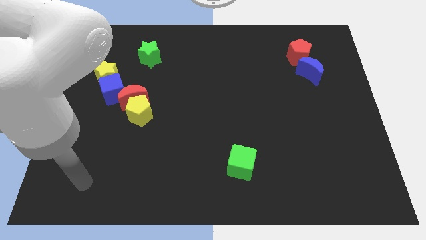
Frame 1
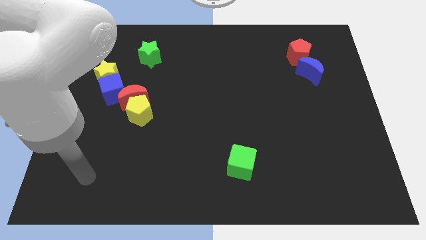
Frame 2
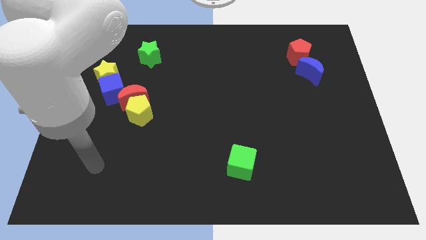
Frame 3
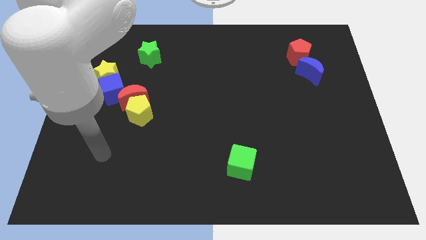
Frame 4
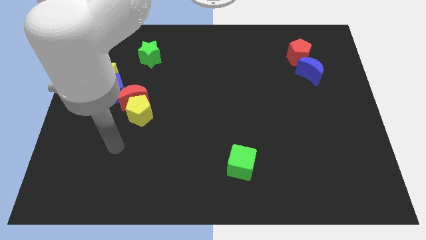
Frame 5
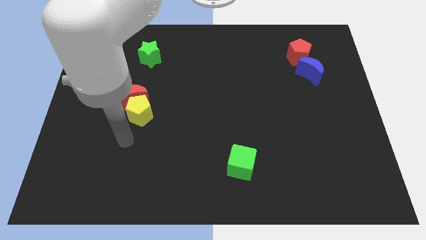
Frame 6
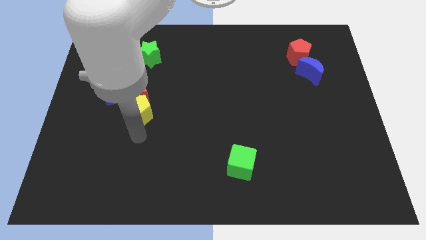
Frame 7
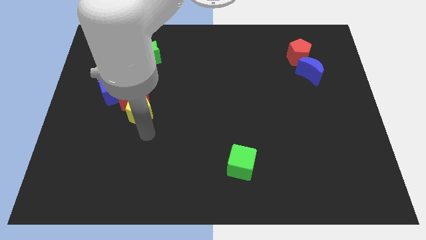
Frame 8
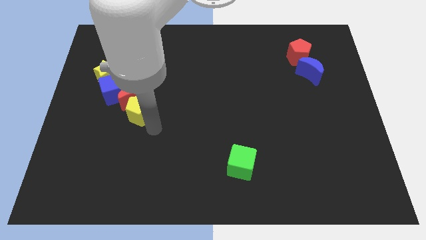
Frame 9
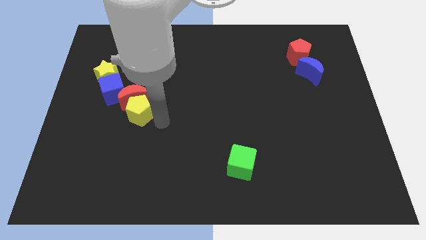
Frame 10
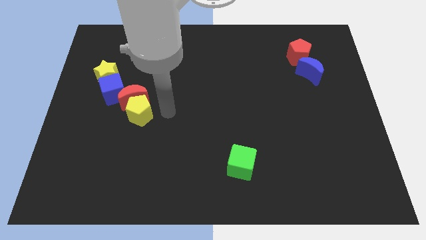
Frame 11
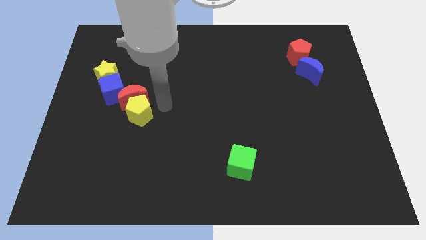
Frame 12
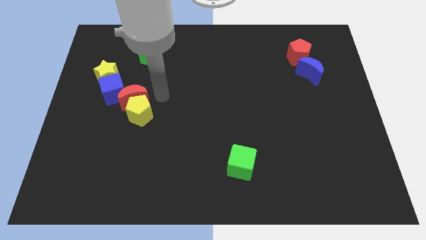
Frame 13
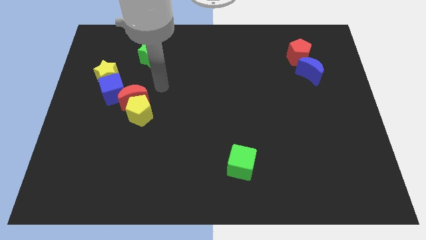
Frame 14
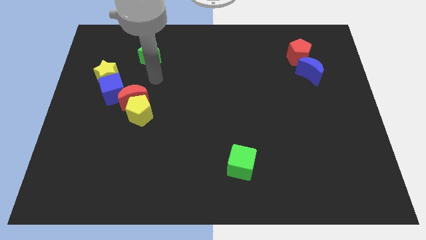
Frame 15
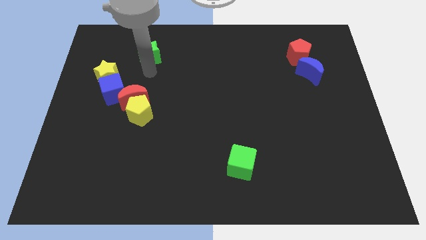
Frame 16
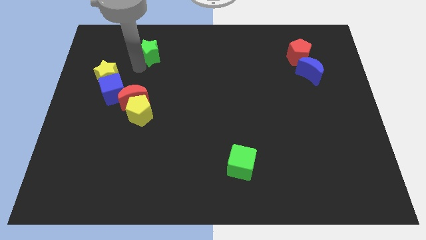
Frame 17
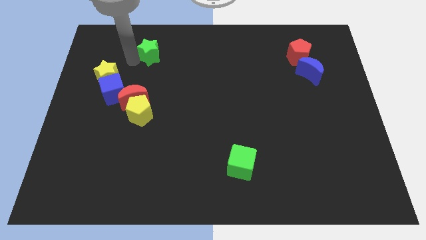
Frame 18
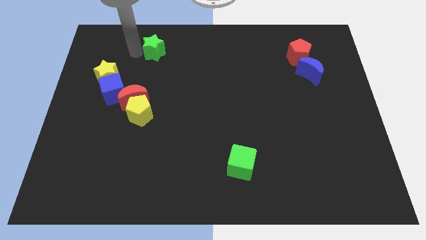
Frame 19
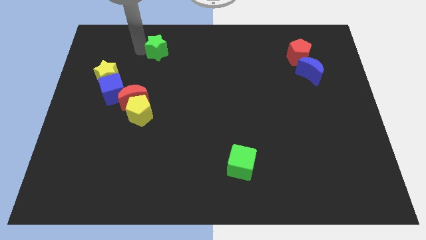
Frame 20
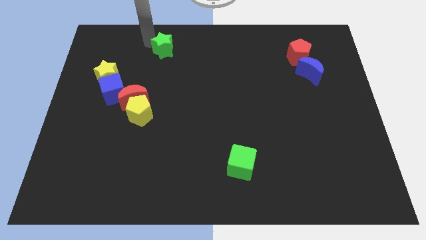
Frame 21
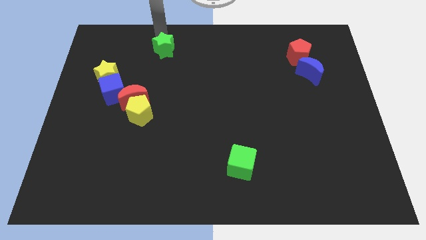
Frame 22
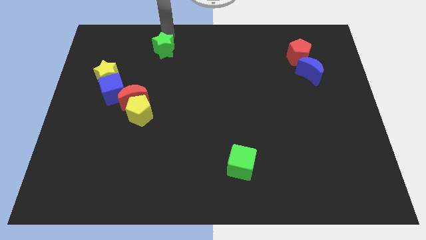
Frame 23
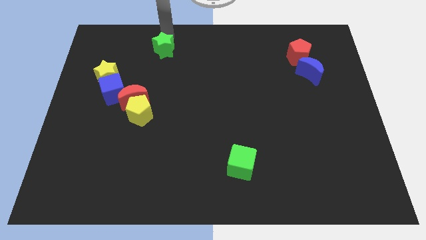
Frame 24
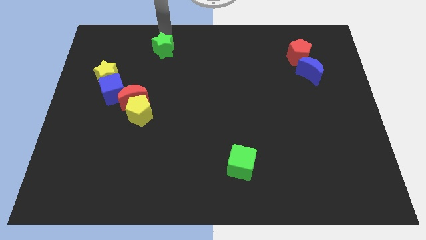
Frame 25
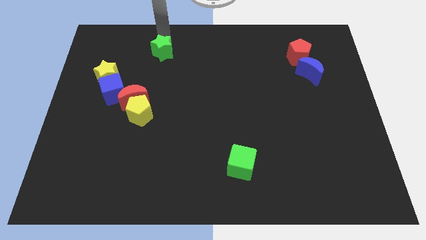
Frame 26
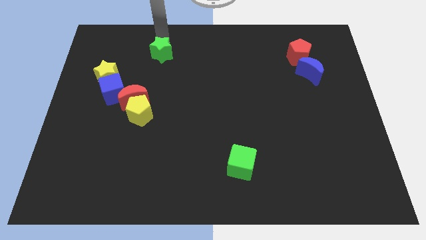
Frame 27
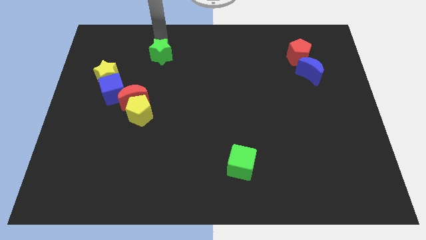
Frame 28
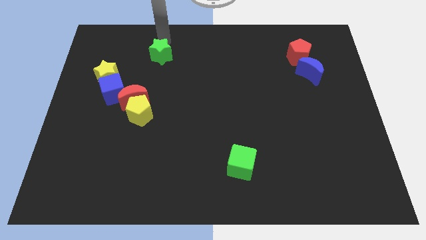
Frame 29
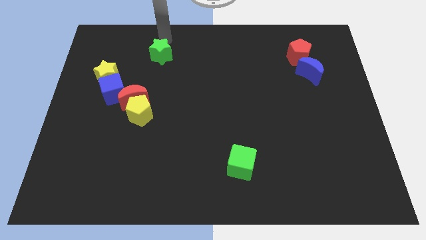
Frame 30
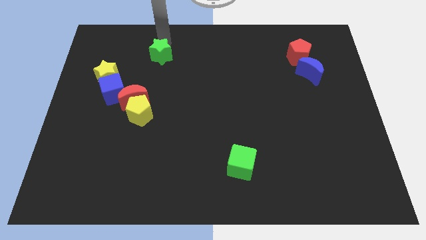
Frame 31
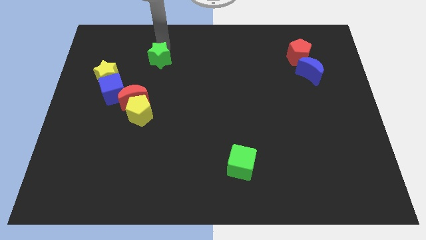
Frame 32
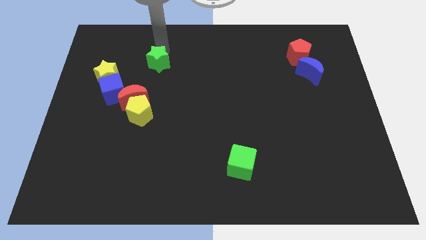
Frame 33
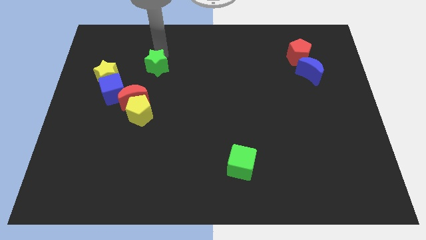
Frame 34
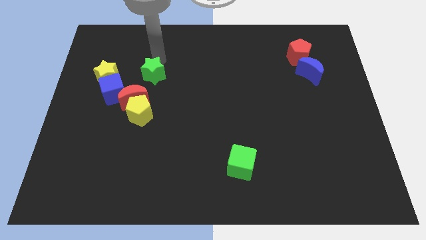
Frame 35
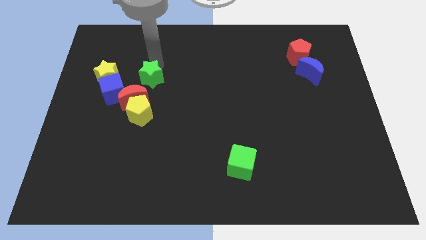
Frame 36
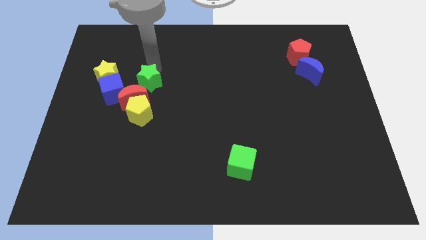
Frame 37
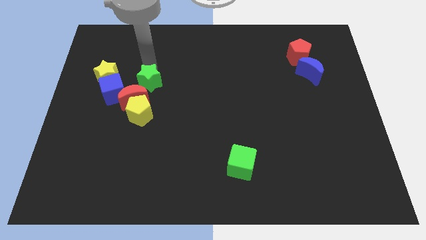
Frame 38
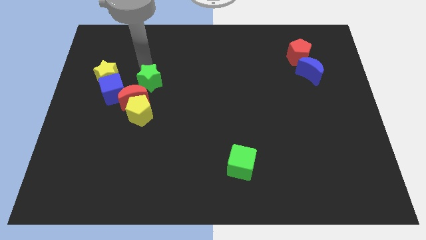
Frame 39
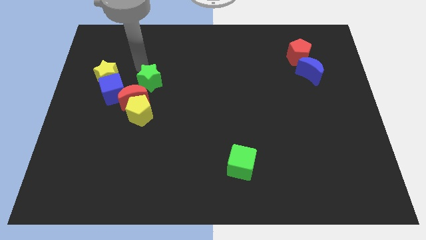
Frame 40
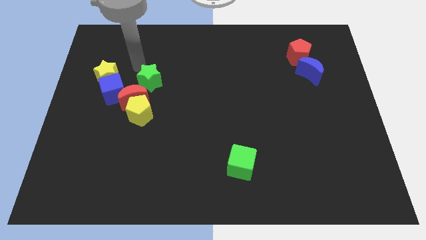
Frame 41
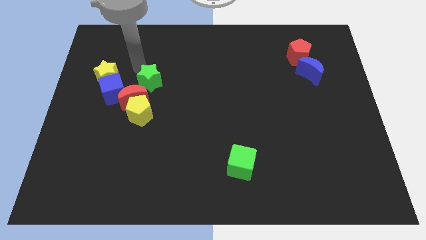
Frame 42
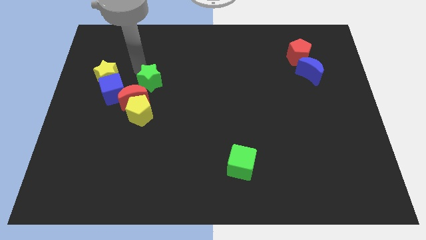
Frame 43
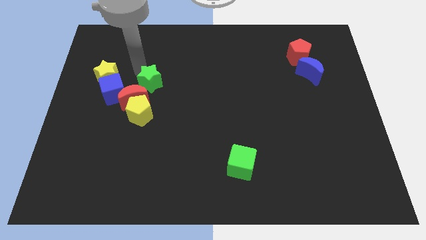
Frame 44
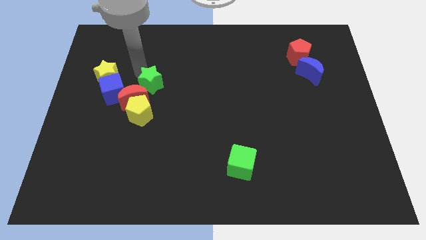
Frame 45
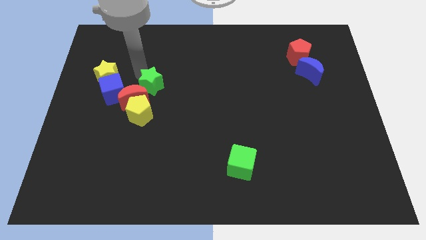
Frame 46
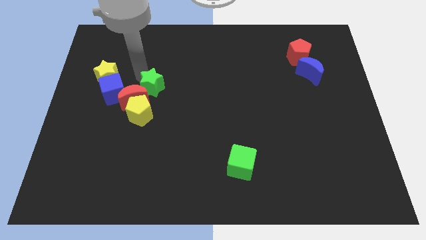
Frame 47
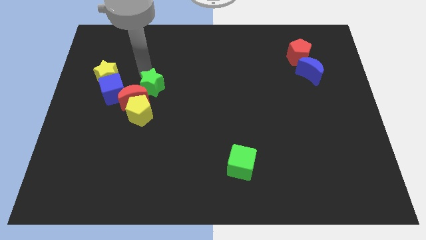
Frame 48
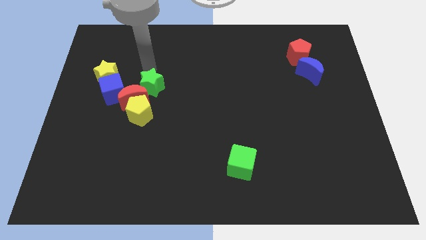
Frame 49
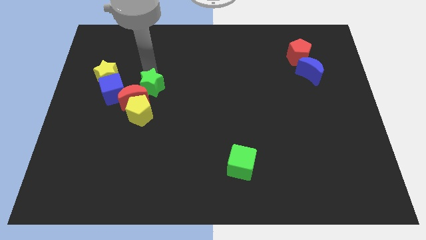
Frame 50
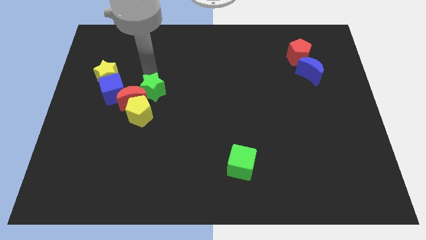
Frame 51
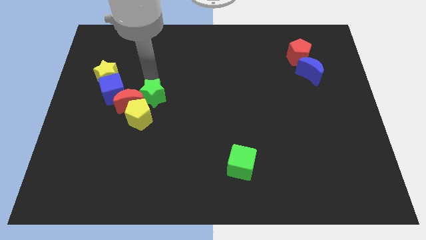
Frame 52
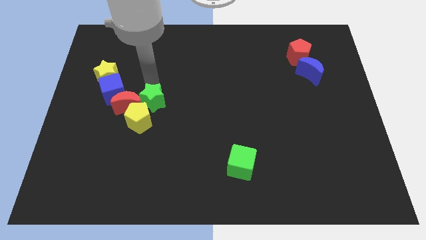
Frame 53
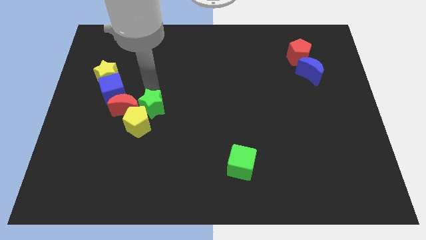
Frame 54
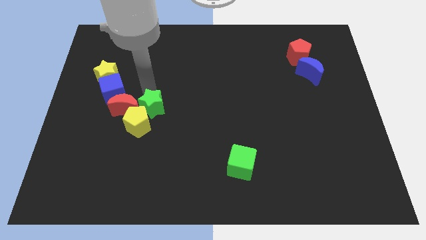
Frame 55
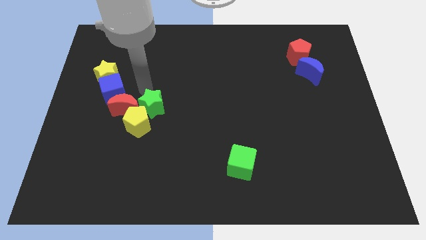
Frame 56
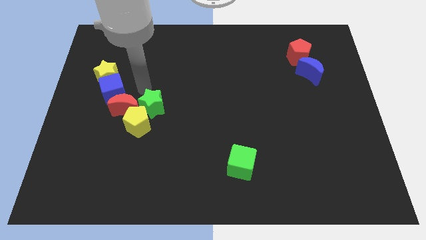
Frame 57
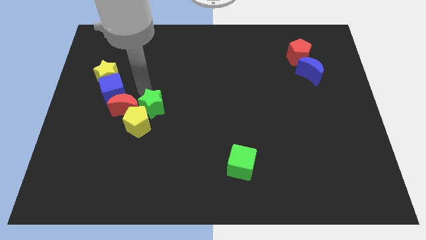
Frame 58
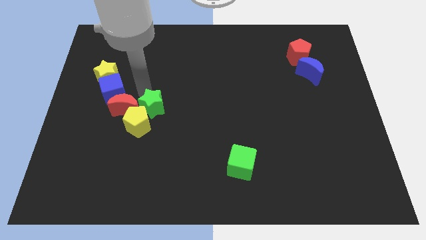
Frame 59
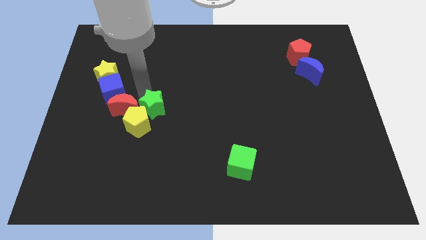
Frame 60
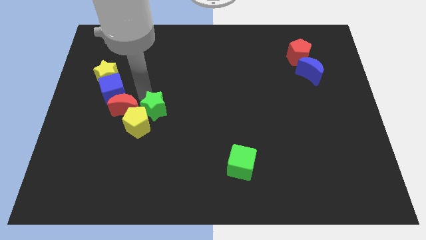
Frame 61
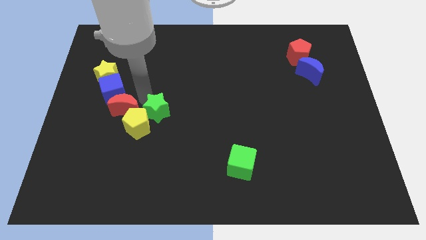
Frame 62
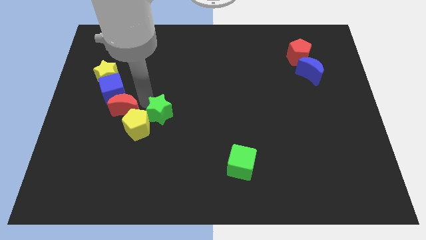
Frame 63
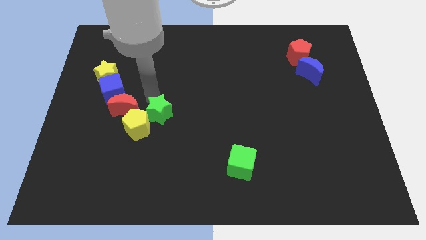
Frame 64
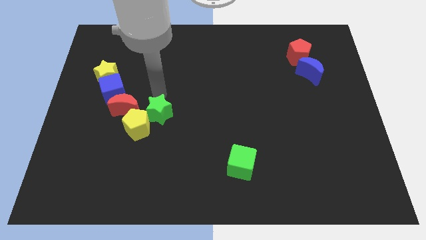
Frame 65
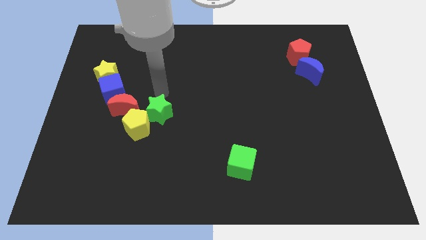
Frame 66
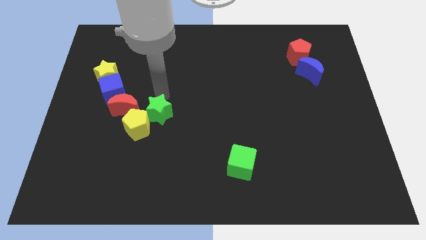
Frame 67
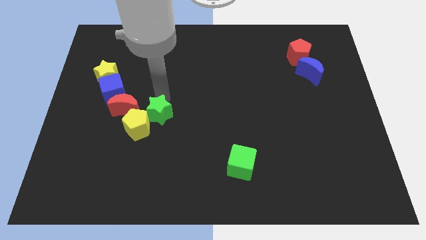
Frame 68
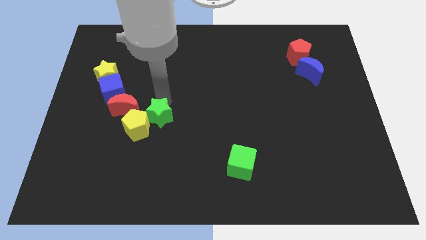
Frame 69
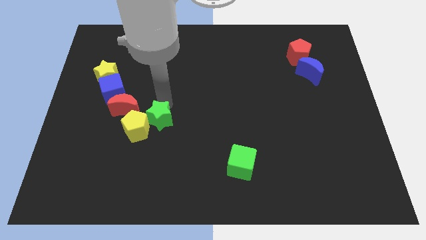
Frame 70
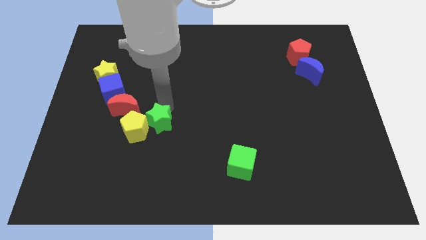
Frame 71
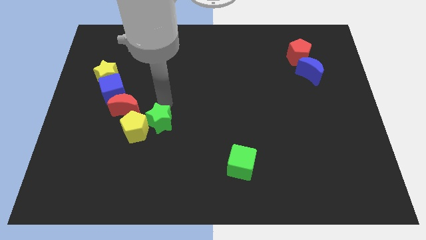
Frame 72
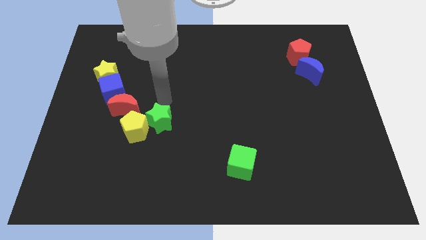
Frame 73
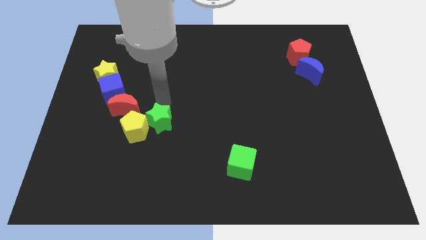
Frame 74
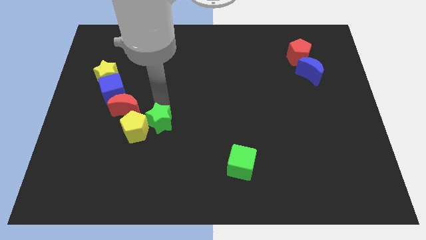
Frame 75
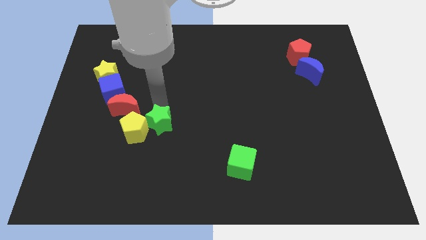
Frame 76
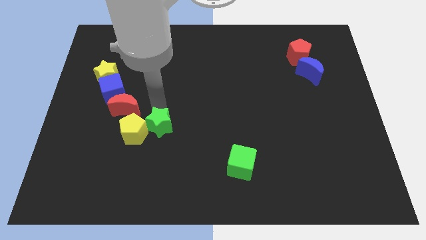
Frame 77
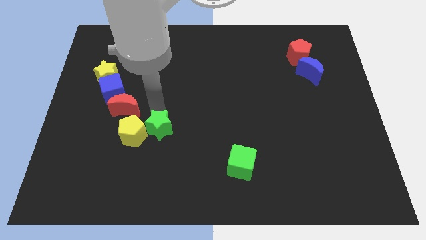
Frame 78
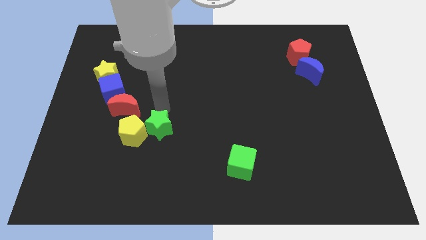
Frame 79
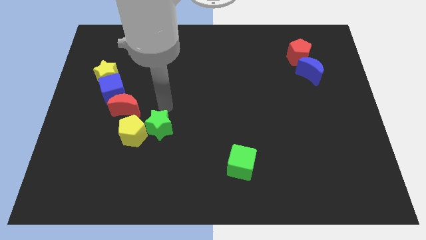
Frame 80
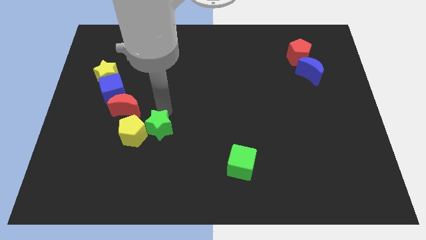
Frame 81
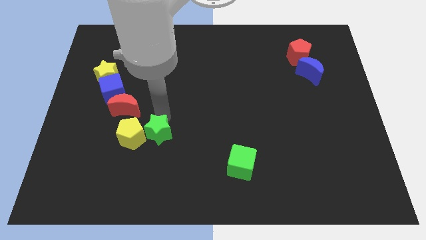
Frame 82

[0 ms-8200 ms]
slide the green star to the bottom right side of the yellow pentagon
